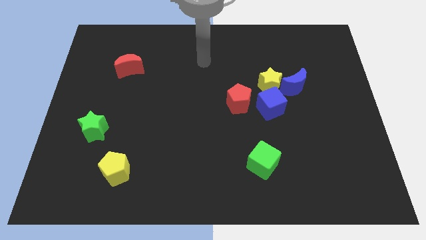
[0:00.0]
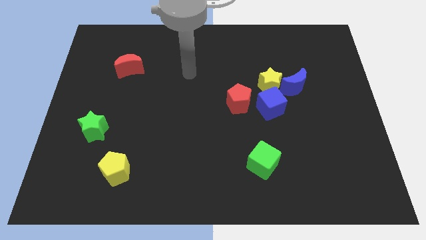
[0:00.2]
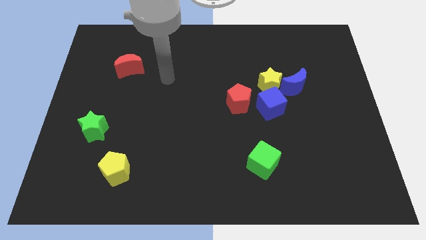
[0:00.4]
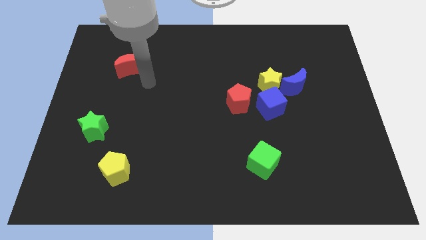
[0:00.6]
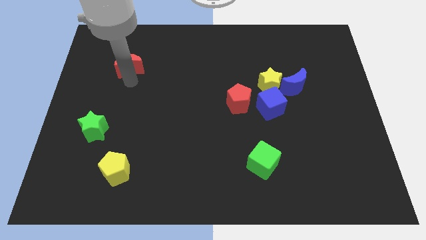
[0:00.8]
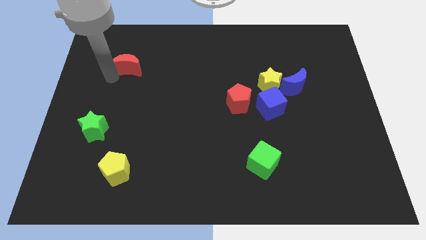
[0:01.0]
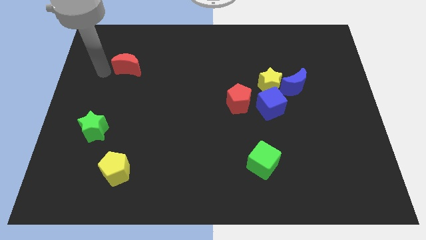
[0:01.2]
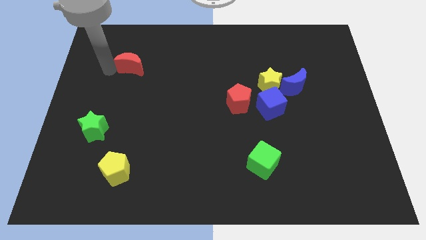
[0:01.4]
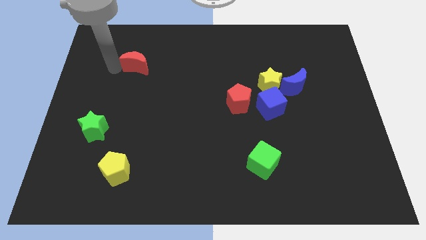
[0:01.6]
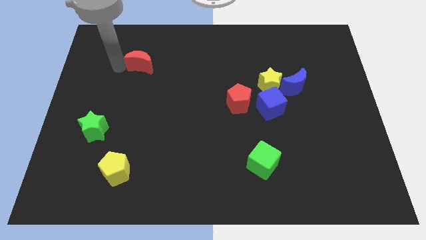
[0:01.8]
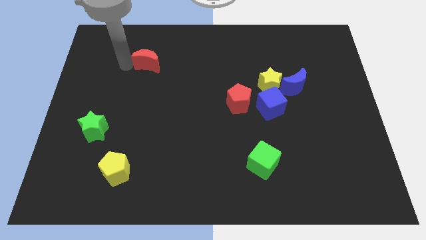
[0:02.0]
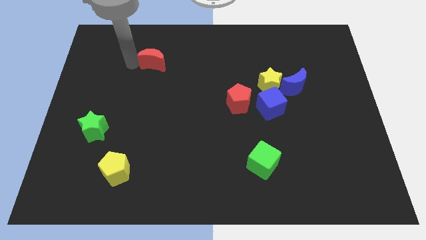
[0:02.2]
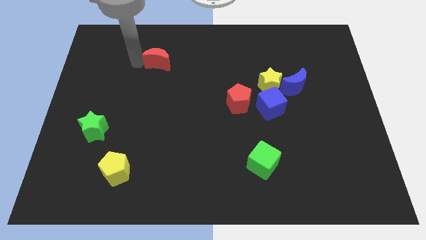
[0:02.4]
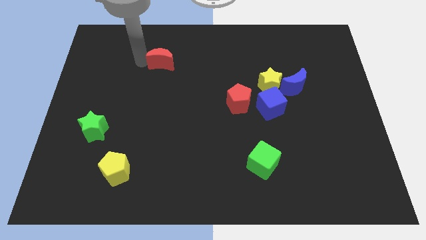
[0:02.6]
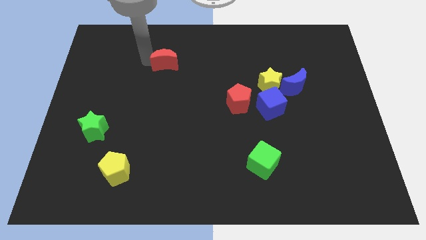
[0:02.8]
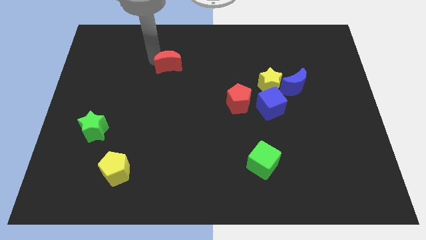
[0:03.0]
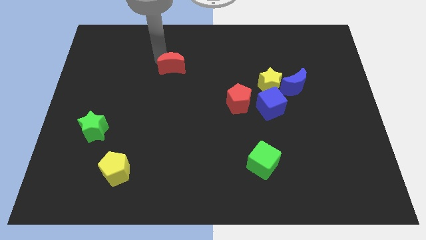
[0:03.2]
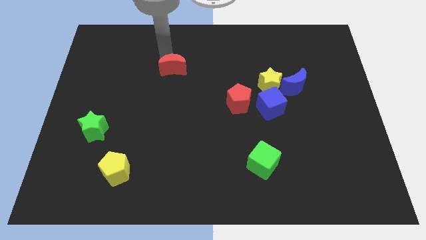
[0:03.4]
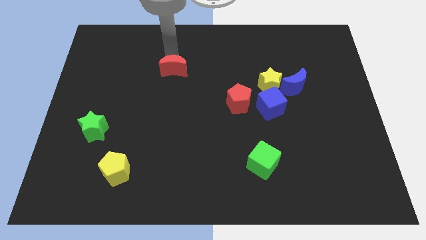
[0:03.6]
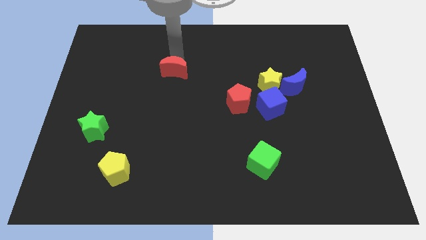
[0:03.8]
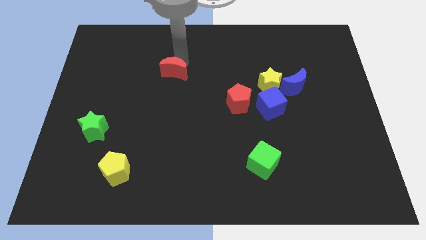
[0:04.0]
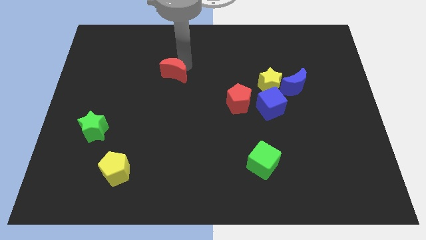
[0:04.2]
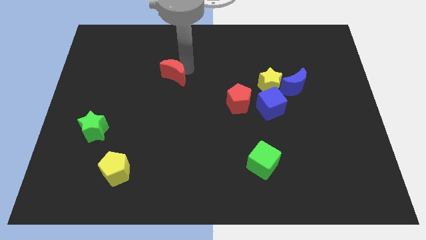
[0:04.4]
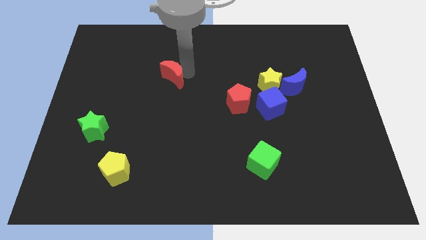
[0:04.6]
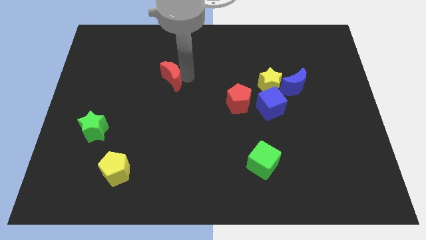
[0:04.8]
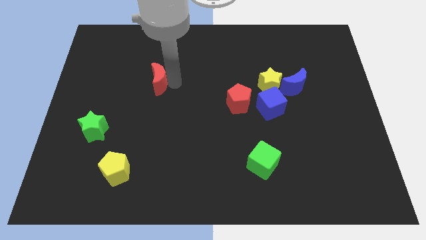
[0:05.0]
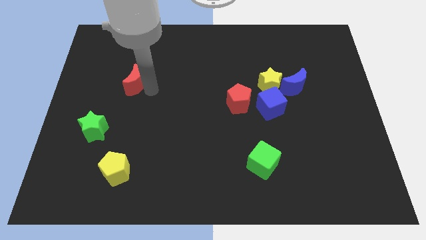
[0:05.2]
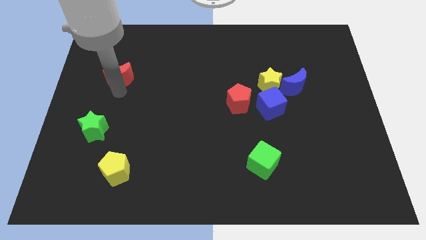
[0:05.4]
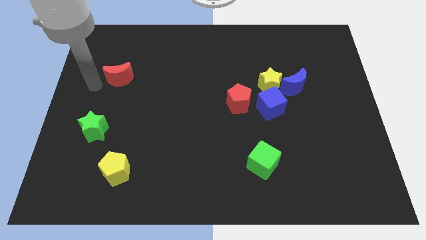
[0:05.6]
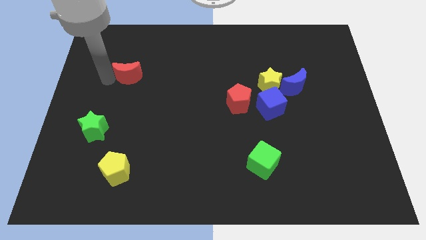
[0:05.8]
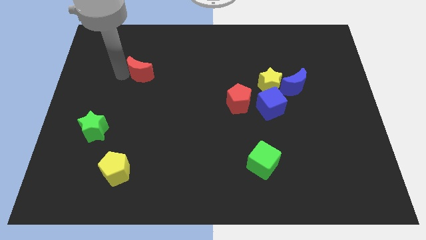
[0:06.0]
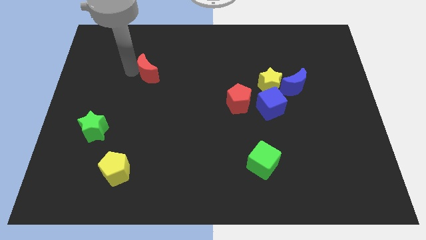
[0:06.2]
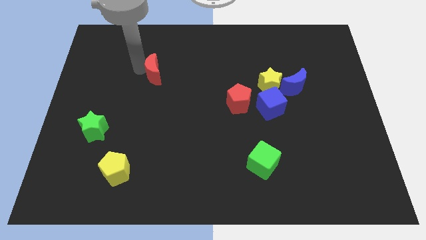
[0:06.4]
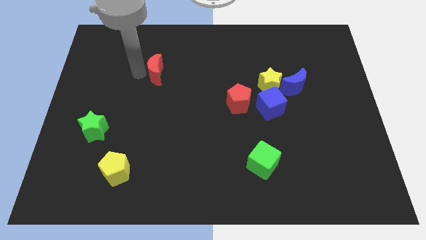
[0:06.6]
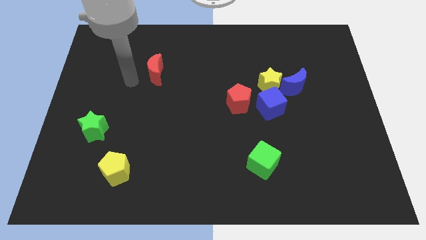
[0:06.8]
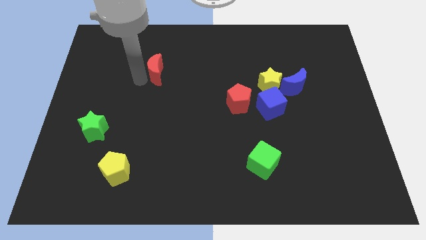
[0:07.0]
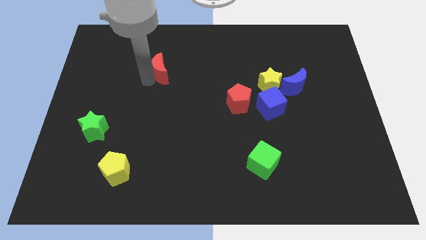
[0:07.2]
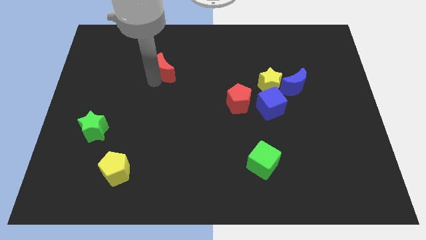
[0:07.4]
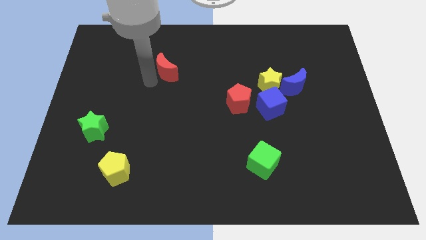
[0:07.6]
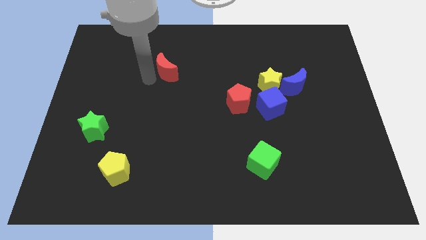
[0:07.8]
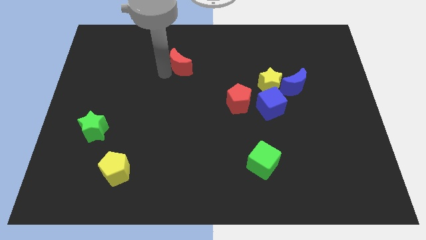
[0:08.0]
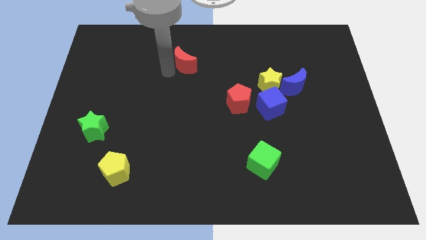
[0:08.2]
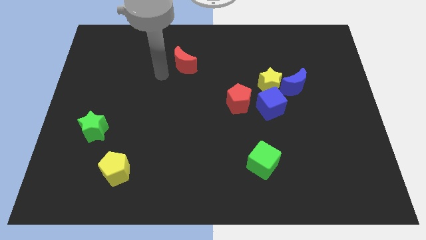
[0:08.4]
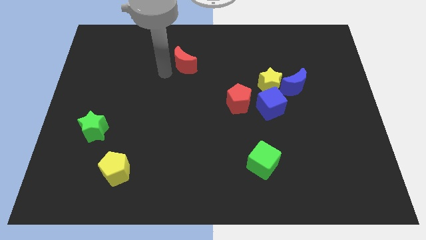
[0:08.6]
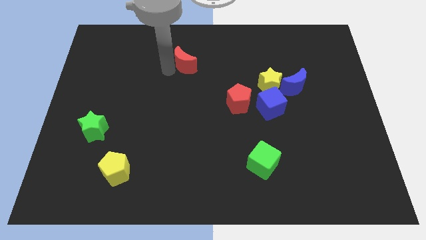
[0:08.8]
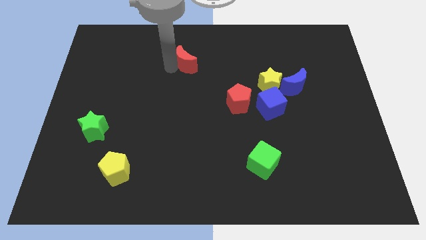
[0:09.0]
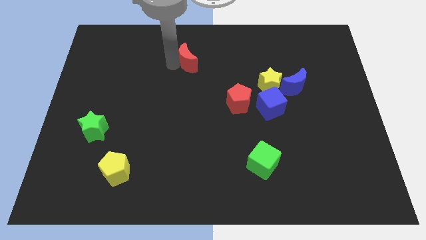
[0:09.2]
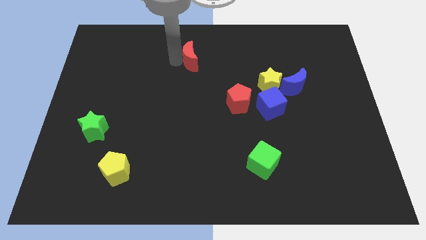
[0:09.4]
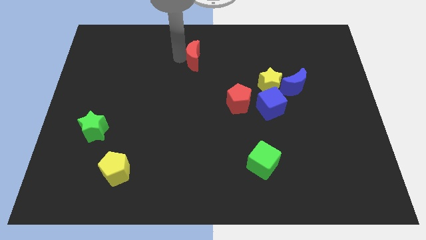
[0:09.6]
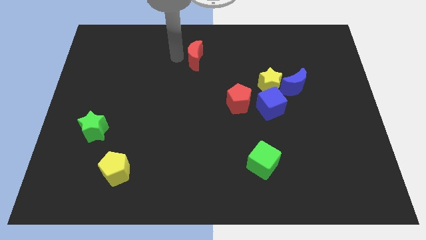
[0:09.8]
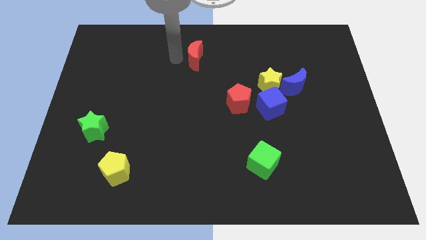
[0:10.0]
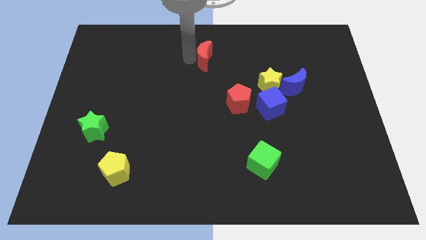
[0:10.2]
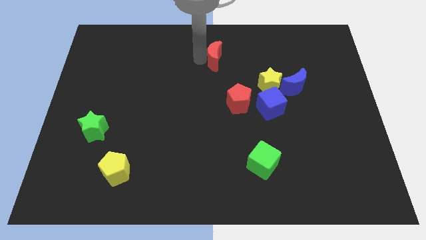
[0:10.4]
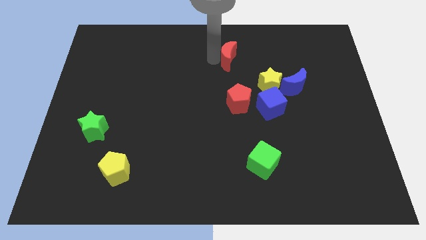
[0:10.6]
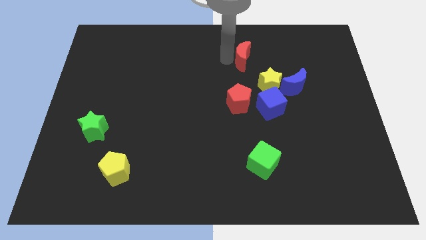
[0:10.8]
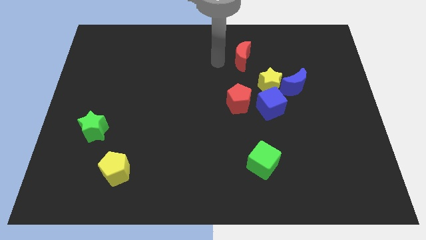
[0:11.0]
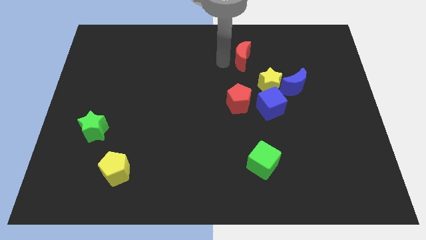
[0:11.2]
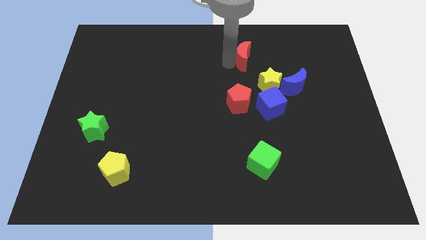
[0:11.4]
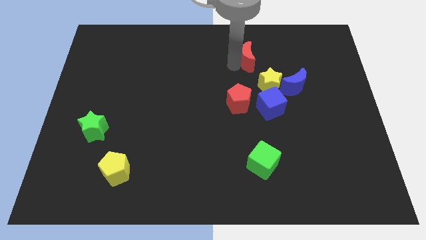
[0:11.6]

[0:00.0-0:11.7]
put the red moon to the top side of the yellow star

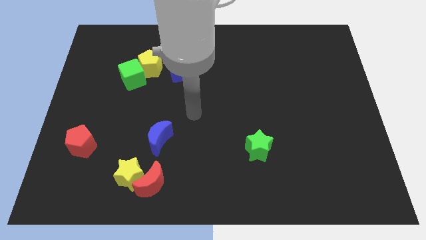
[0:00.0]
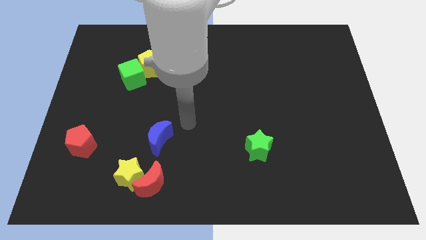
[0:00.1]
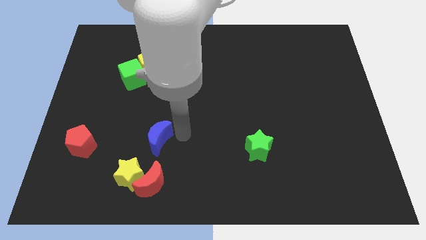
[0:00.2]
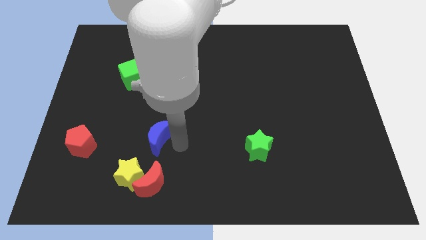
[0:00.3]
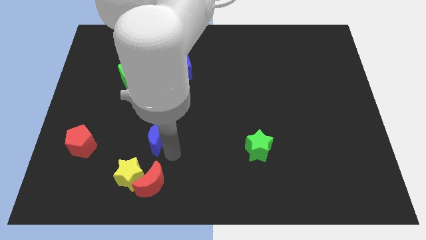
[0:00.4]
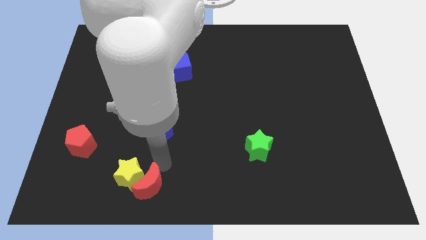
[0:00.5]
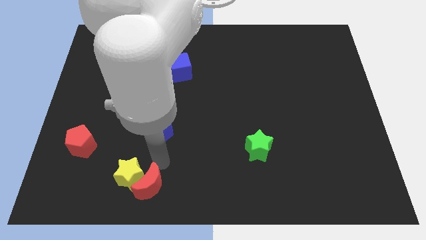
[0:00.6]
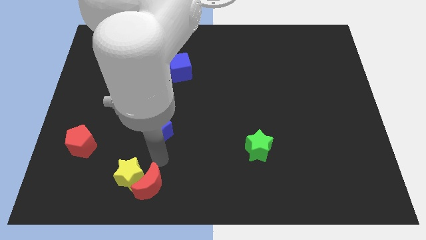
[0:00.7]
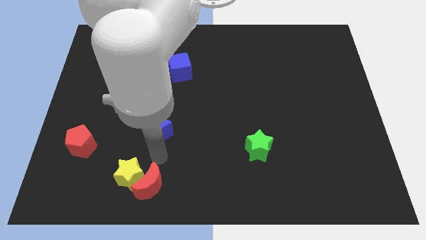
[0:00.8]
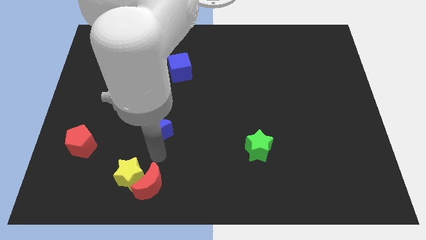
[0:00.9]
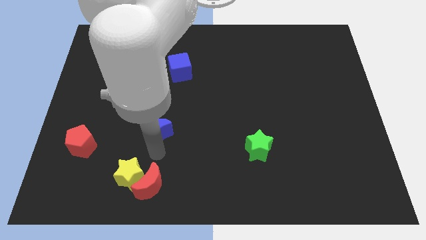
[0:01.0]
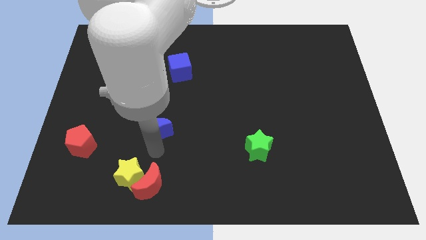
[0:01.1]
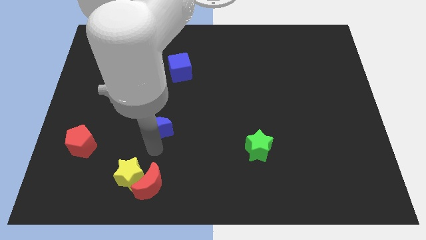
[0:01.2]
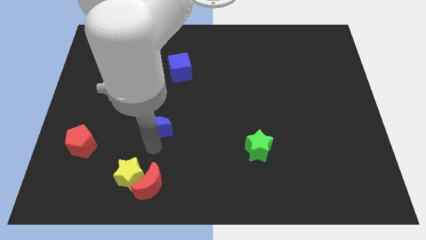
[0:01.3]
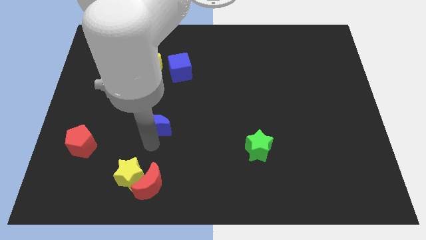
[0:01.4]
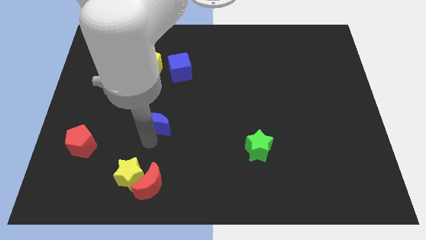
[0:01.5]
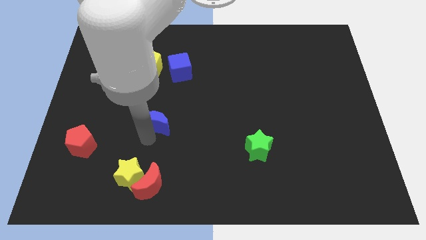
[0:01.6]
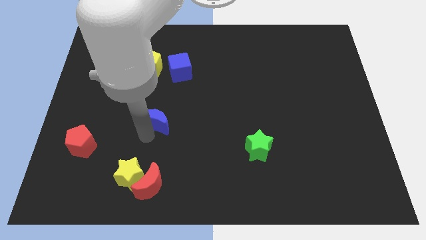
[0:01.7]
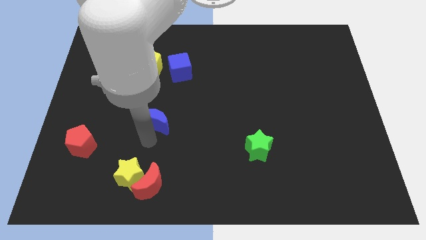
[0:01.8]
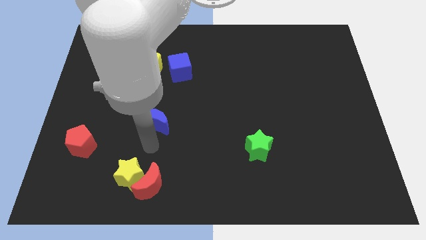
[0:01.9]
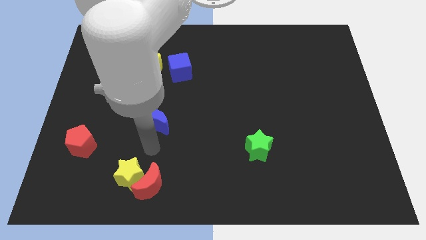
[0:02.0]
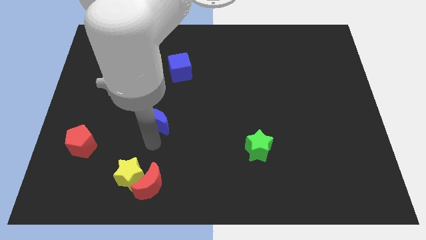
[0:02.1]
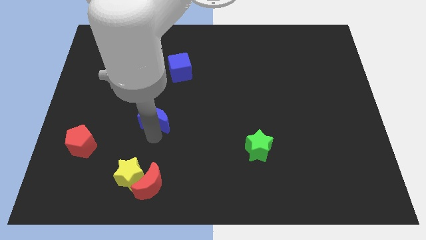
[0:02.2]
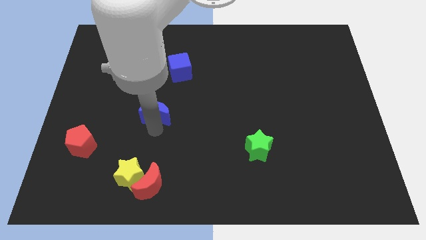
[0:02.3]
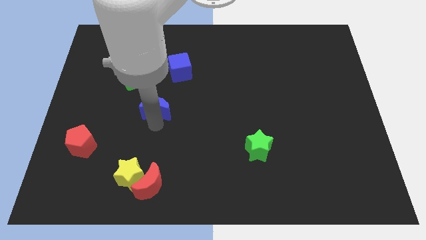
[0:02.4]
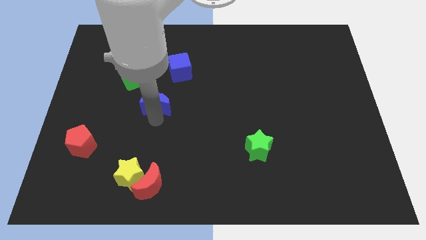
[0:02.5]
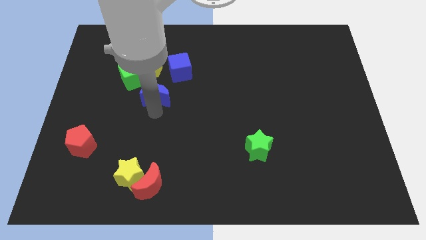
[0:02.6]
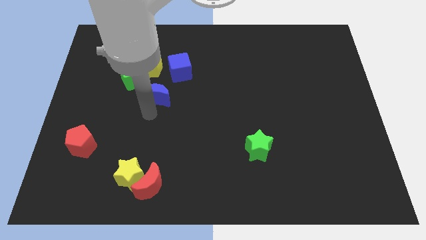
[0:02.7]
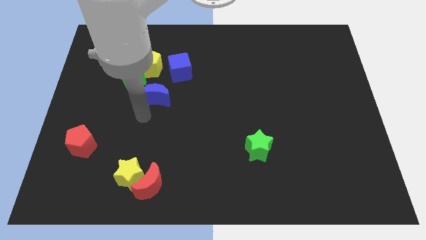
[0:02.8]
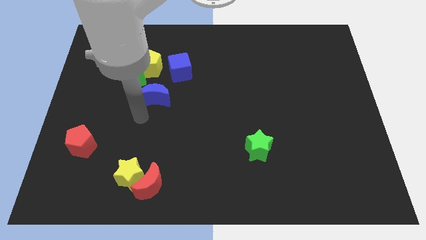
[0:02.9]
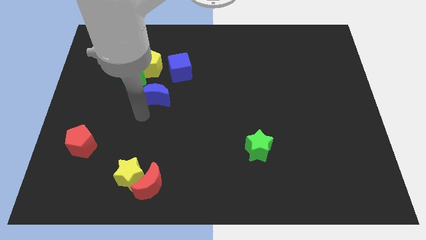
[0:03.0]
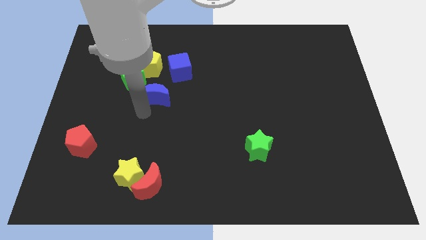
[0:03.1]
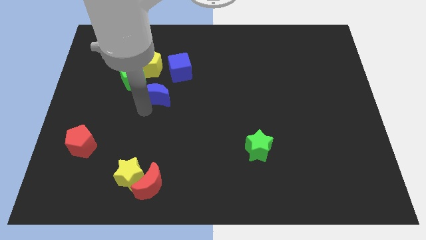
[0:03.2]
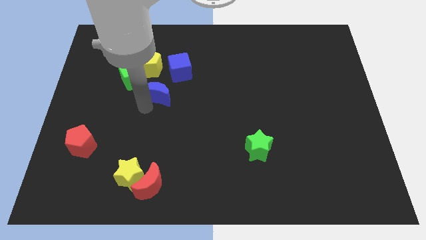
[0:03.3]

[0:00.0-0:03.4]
put the blue moon to the bottom right side of the yellow pentagon
